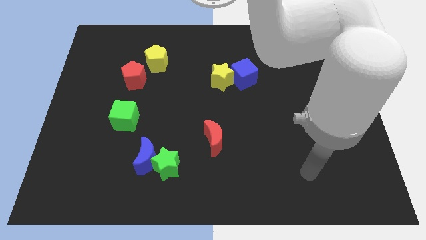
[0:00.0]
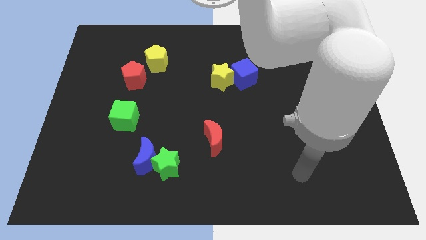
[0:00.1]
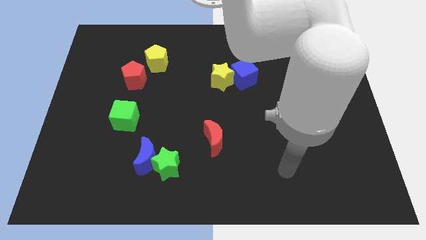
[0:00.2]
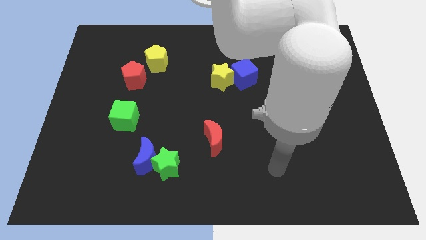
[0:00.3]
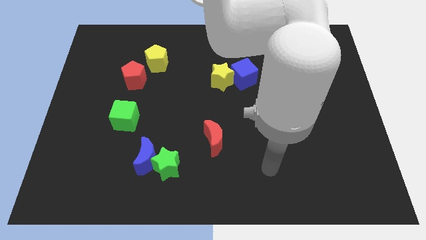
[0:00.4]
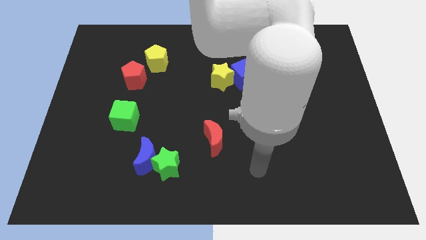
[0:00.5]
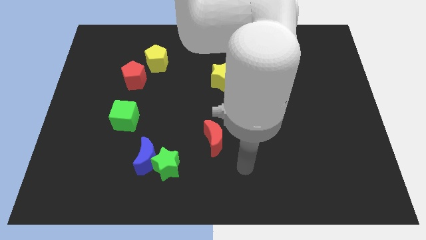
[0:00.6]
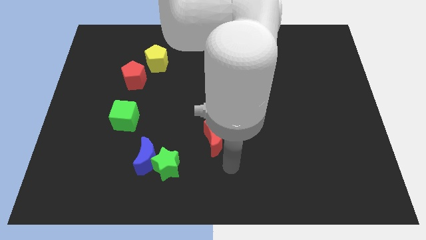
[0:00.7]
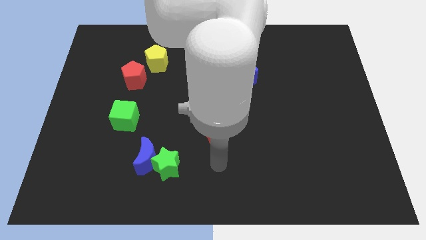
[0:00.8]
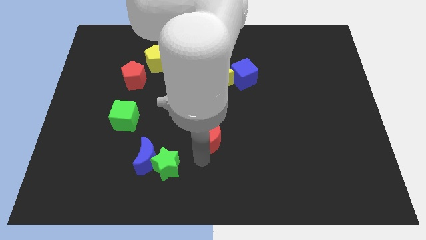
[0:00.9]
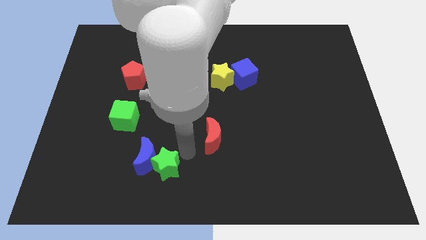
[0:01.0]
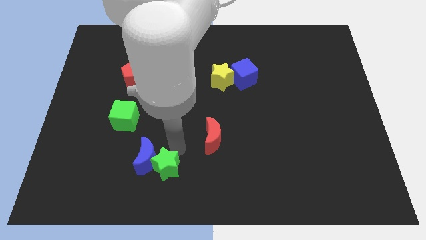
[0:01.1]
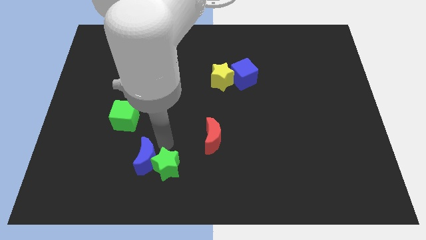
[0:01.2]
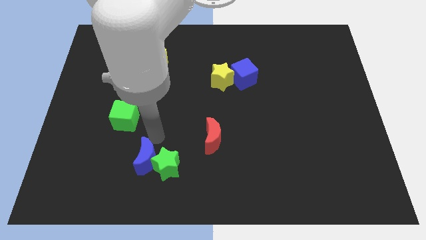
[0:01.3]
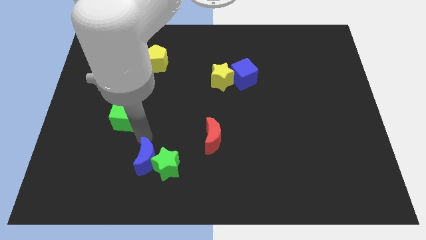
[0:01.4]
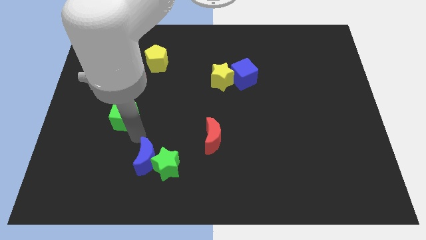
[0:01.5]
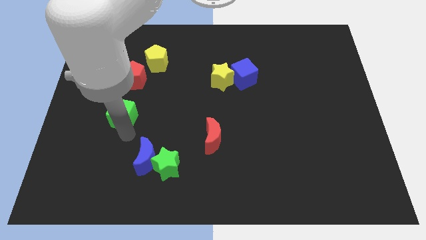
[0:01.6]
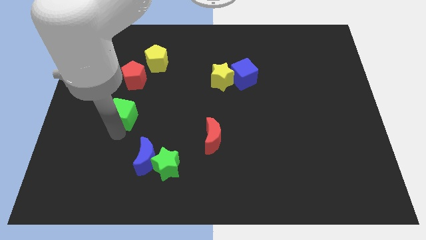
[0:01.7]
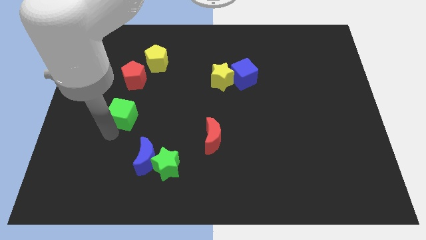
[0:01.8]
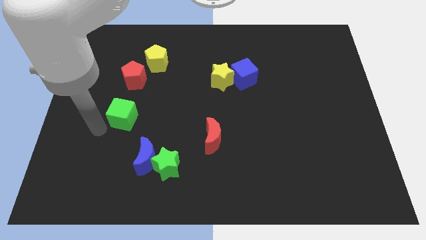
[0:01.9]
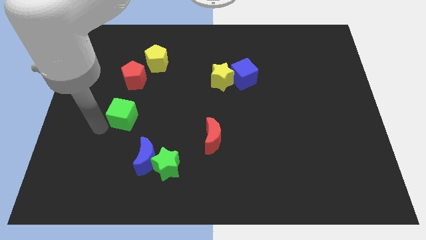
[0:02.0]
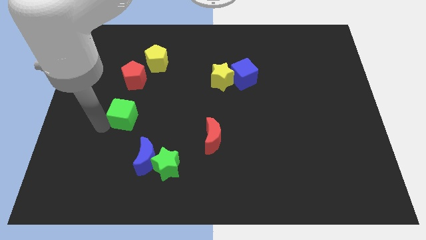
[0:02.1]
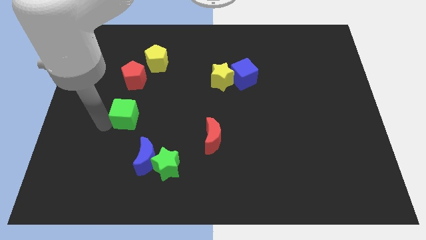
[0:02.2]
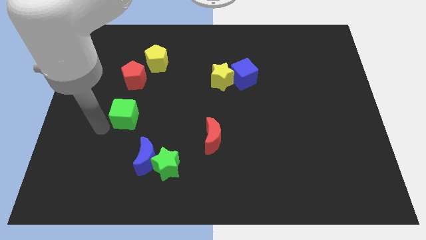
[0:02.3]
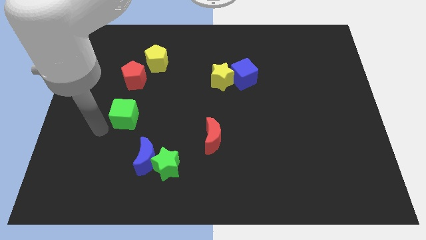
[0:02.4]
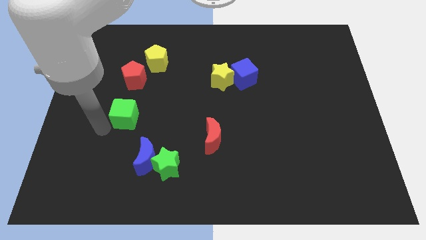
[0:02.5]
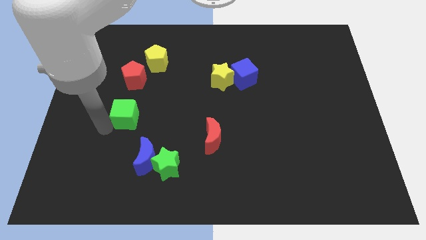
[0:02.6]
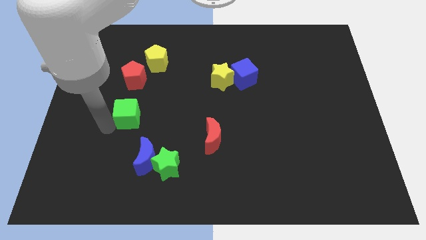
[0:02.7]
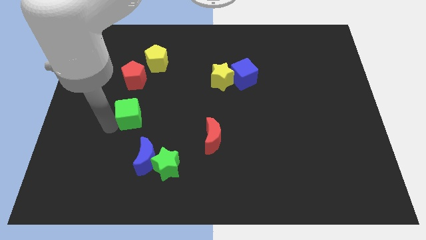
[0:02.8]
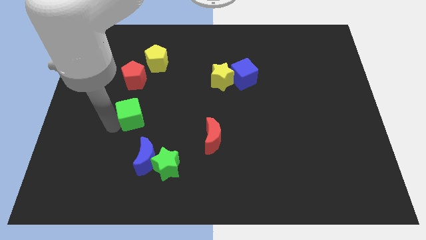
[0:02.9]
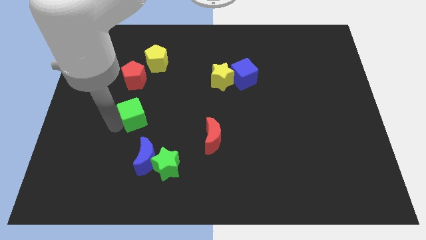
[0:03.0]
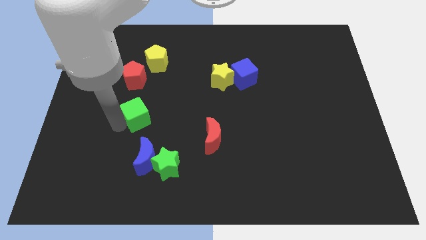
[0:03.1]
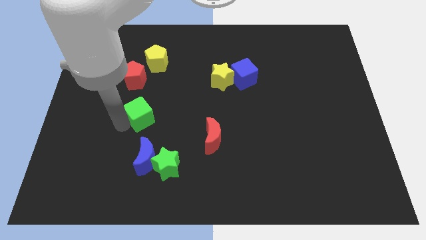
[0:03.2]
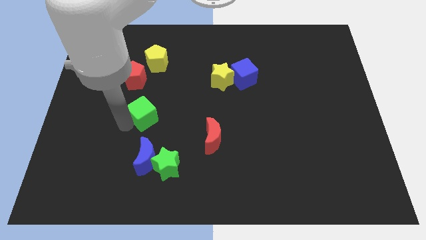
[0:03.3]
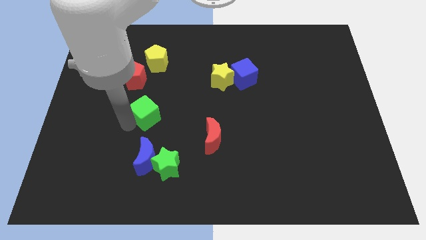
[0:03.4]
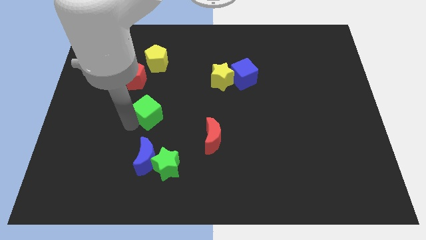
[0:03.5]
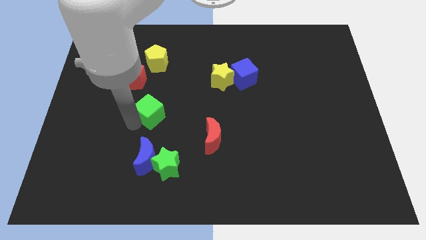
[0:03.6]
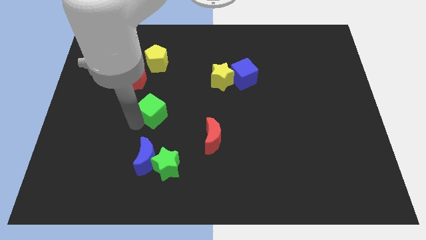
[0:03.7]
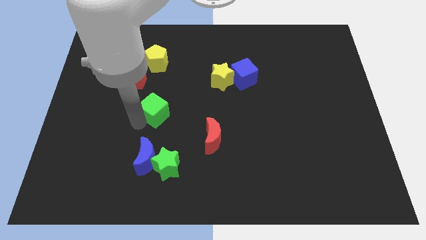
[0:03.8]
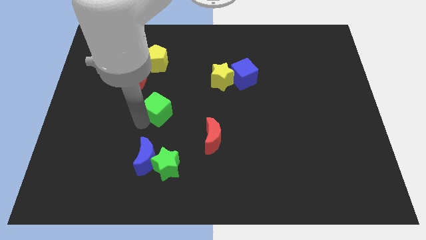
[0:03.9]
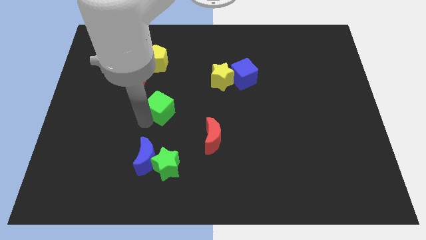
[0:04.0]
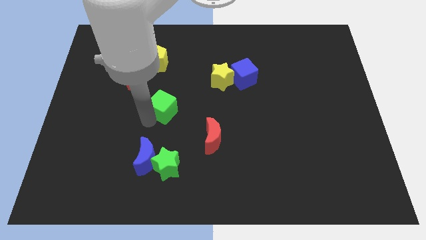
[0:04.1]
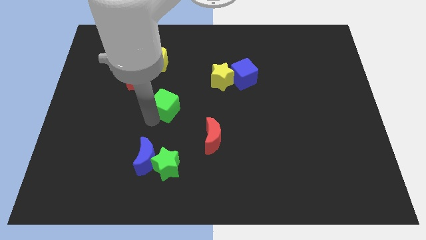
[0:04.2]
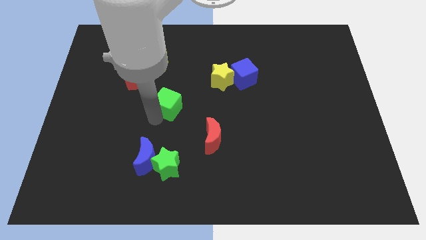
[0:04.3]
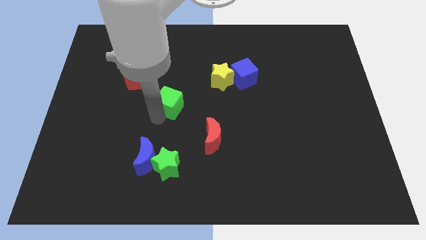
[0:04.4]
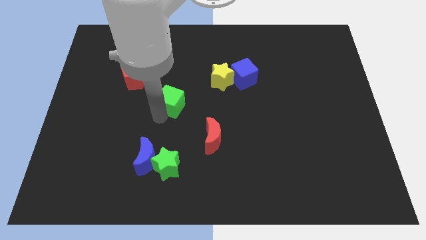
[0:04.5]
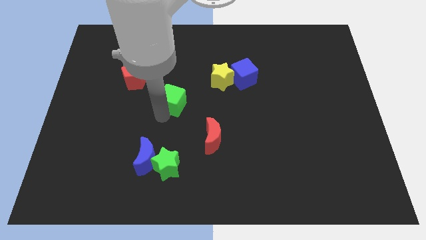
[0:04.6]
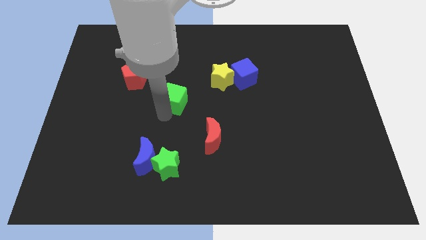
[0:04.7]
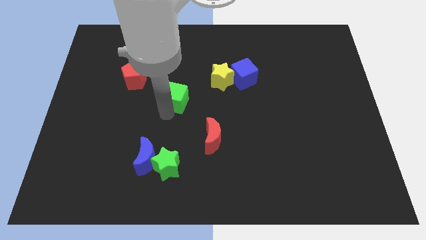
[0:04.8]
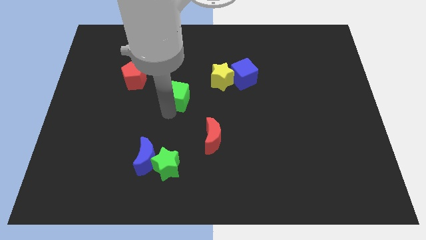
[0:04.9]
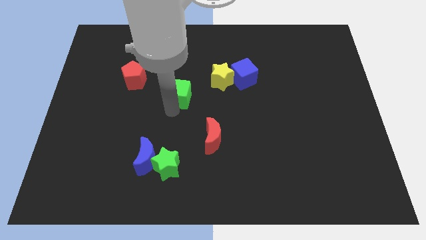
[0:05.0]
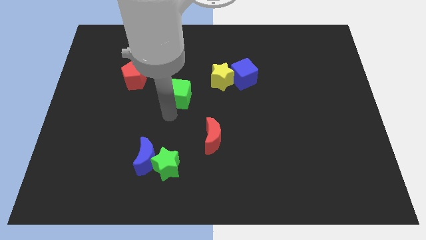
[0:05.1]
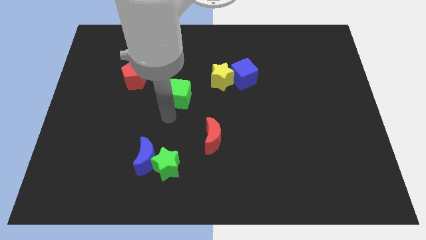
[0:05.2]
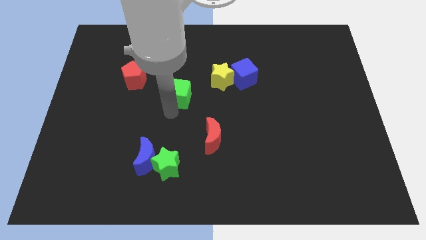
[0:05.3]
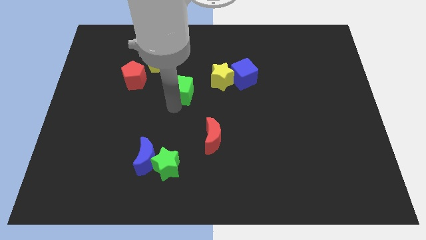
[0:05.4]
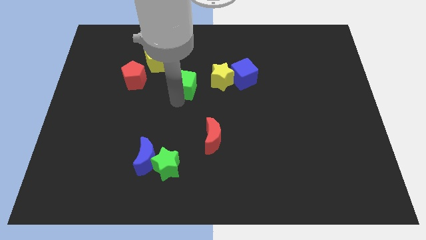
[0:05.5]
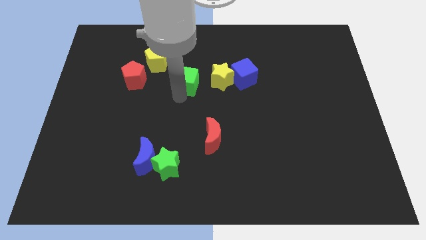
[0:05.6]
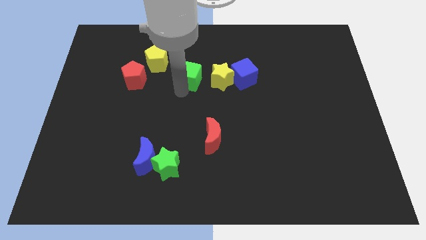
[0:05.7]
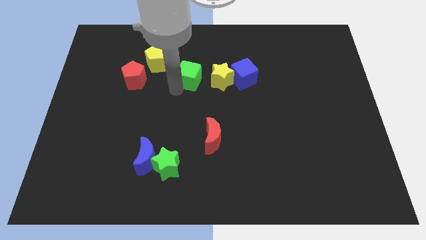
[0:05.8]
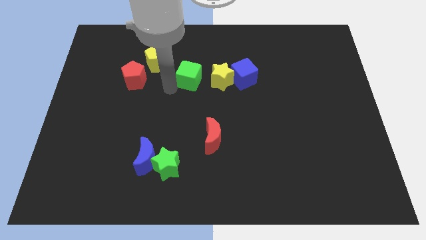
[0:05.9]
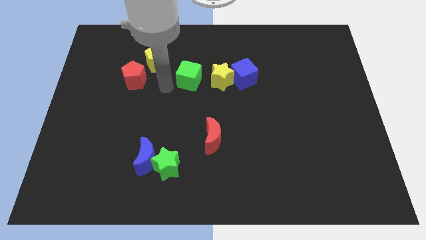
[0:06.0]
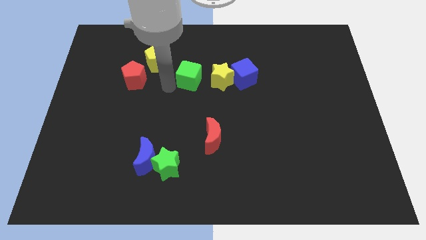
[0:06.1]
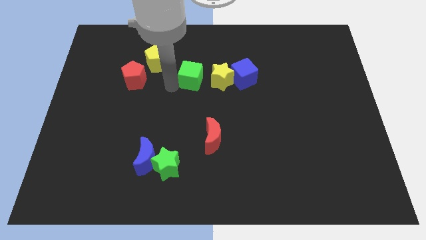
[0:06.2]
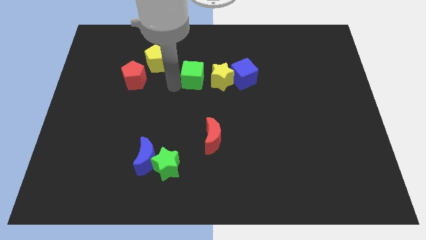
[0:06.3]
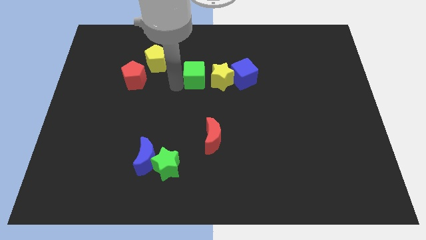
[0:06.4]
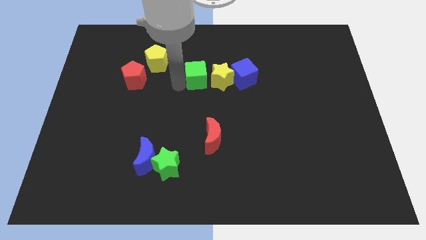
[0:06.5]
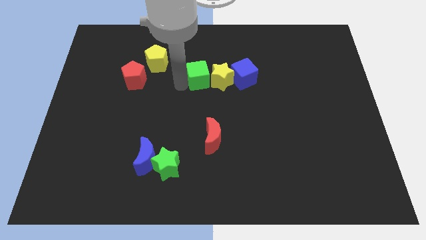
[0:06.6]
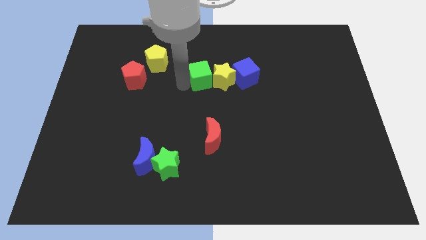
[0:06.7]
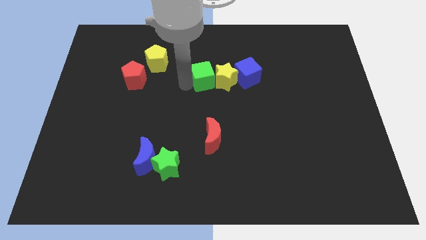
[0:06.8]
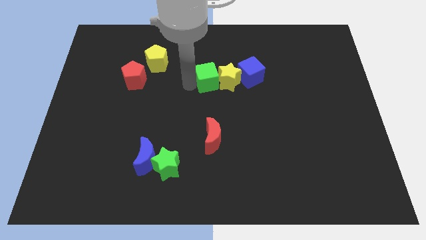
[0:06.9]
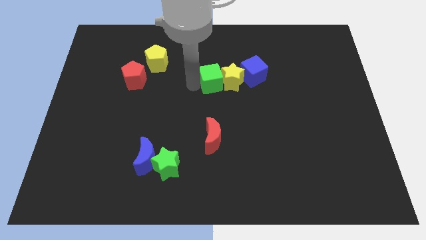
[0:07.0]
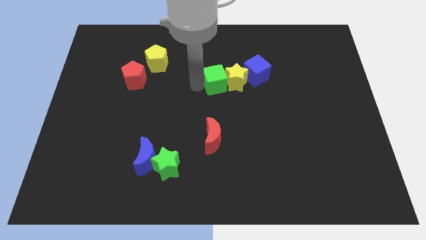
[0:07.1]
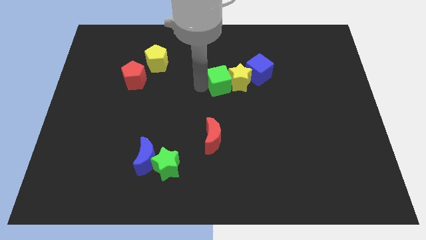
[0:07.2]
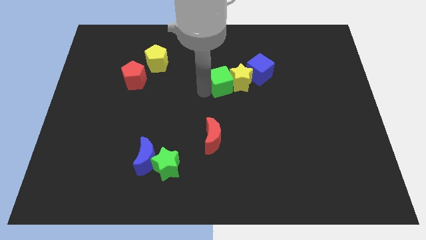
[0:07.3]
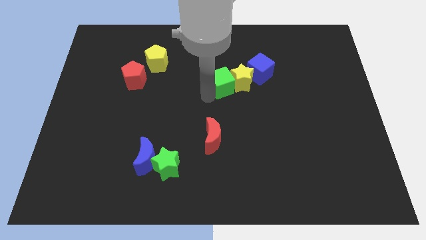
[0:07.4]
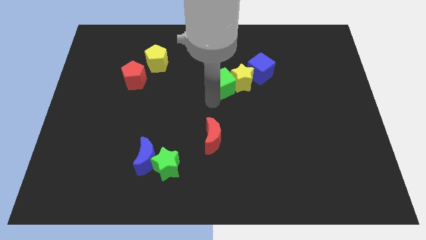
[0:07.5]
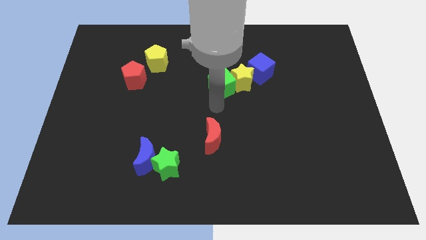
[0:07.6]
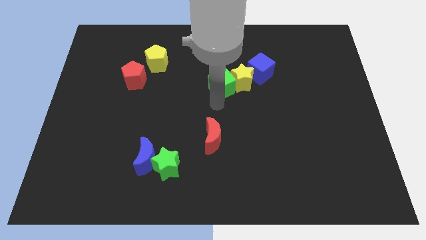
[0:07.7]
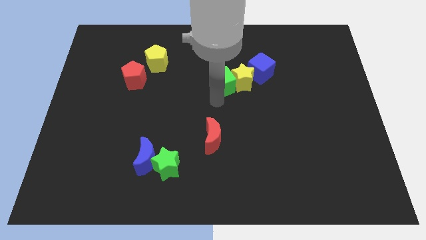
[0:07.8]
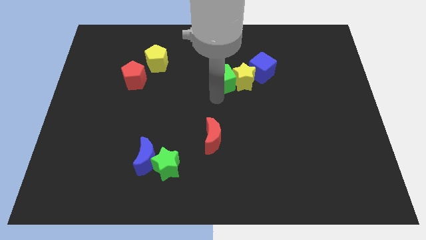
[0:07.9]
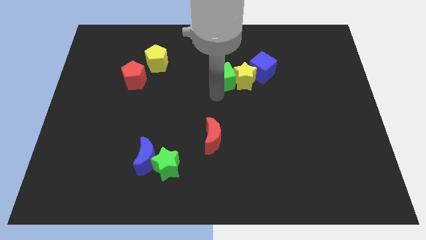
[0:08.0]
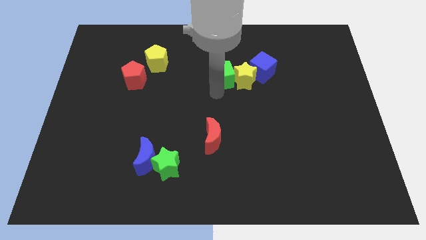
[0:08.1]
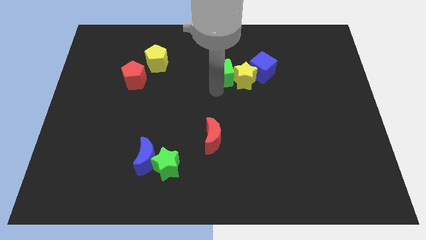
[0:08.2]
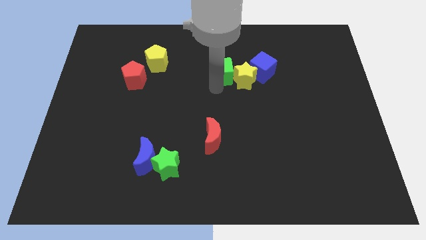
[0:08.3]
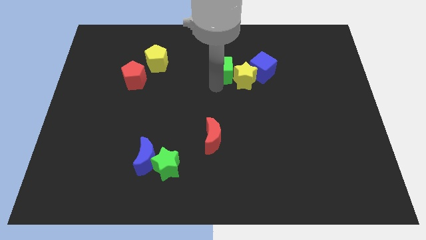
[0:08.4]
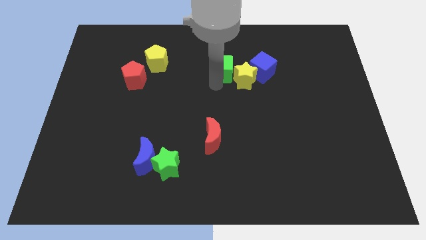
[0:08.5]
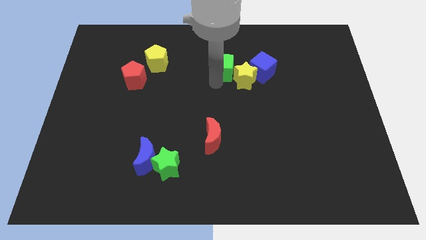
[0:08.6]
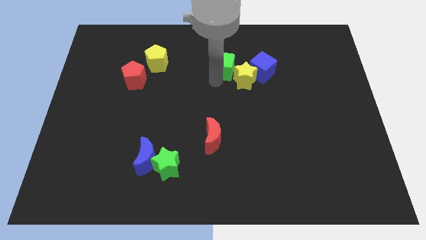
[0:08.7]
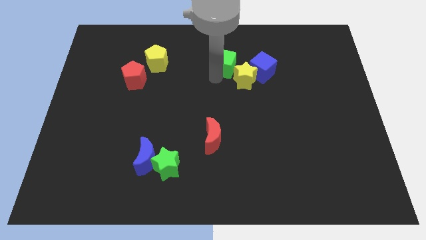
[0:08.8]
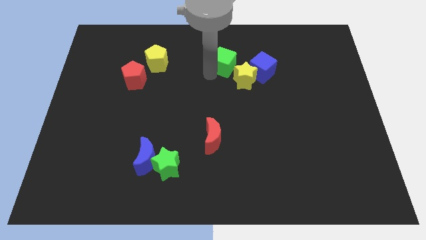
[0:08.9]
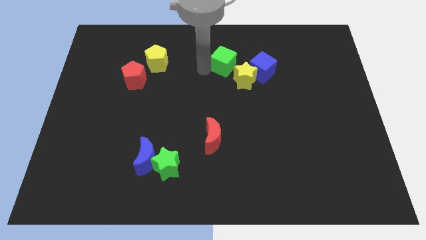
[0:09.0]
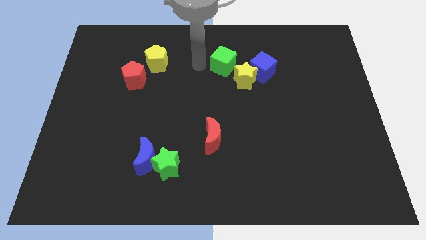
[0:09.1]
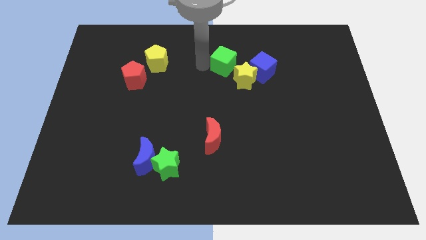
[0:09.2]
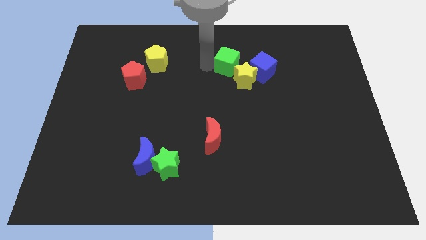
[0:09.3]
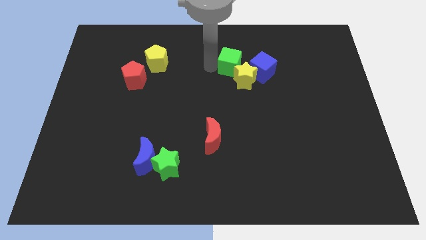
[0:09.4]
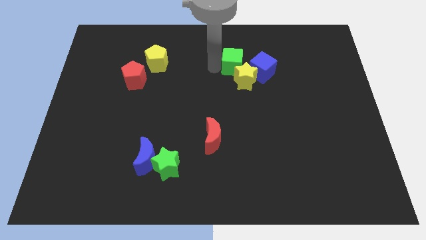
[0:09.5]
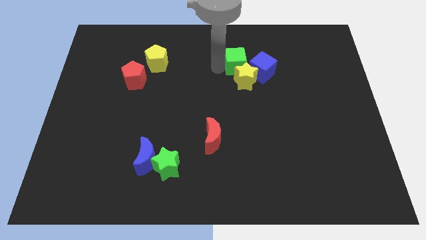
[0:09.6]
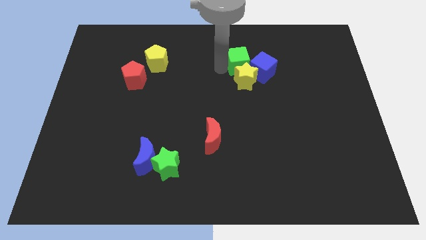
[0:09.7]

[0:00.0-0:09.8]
push the green cube to the top right side of the yellow star
